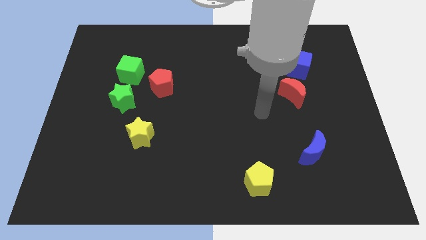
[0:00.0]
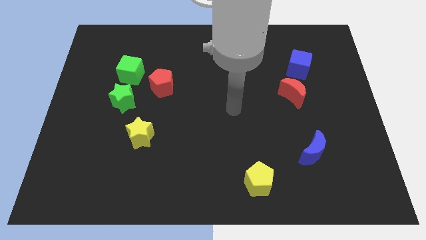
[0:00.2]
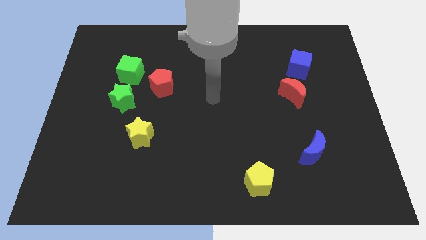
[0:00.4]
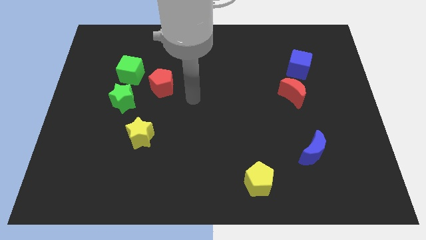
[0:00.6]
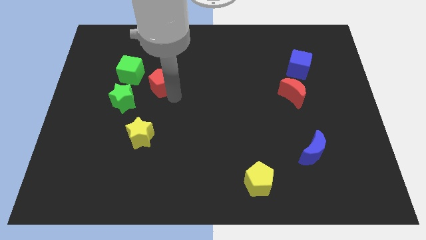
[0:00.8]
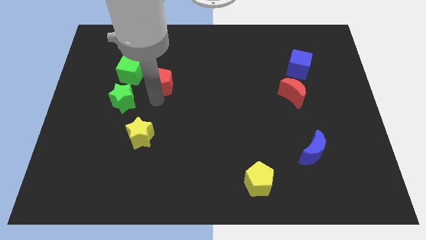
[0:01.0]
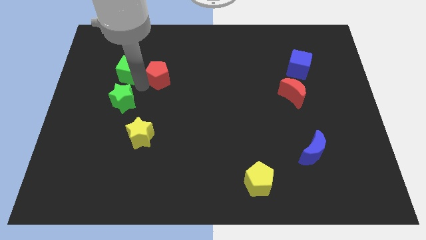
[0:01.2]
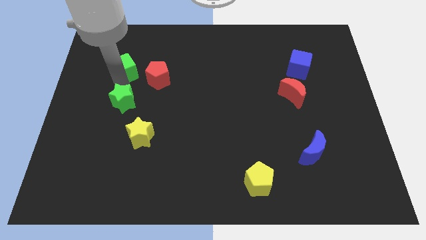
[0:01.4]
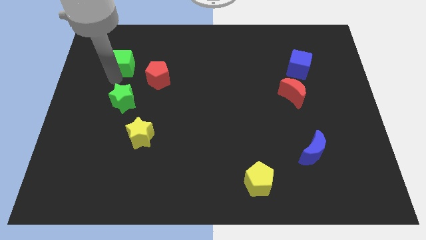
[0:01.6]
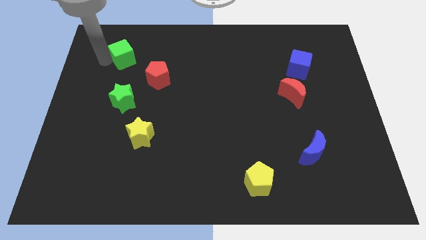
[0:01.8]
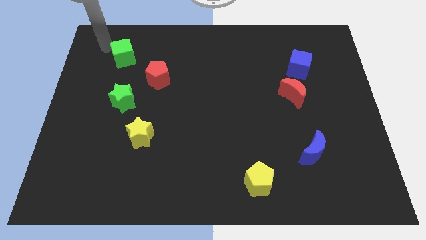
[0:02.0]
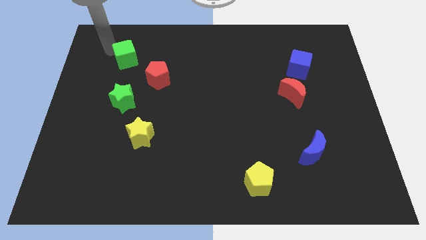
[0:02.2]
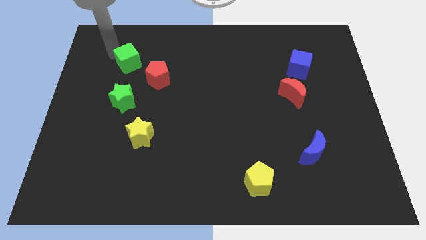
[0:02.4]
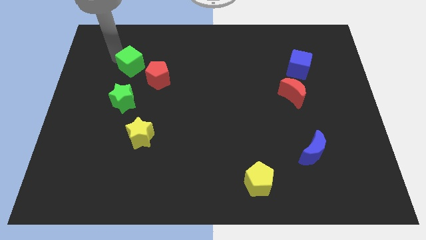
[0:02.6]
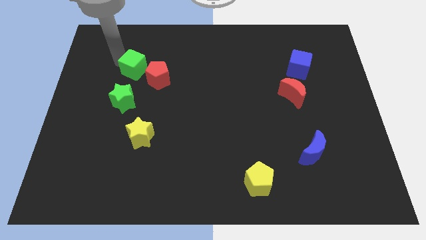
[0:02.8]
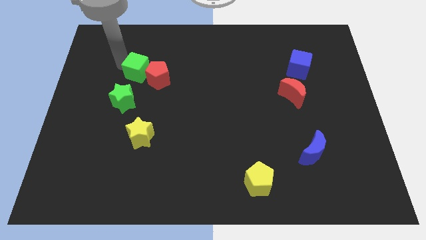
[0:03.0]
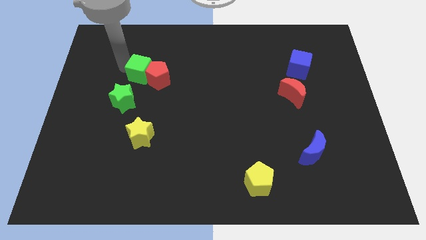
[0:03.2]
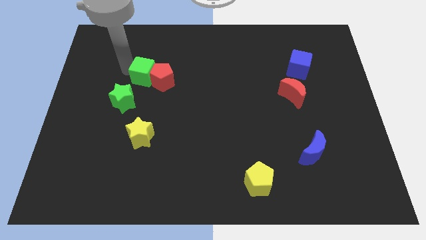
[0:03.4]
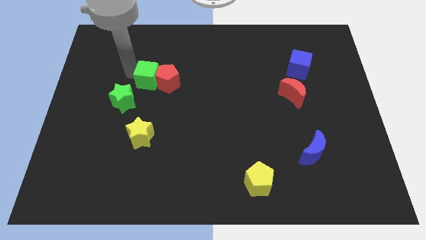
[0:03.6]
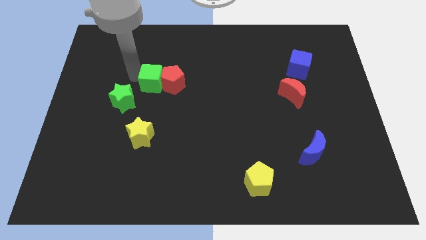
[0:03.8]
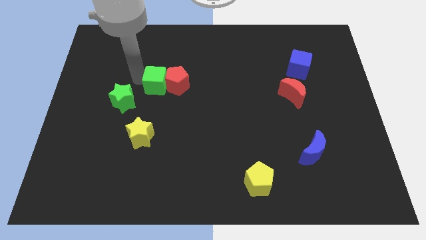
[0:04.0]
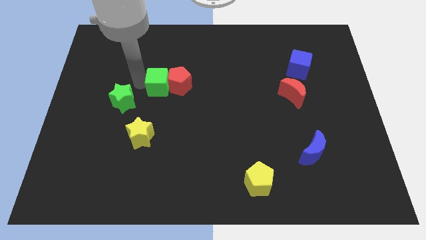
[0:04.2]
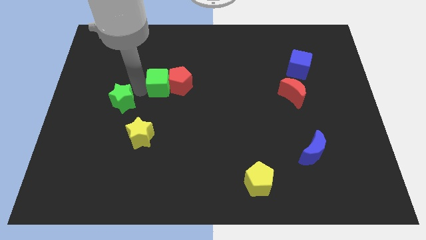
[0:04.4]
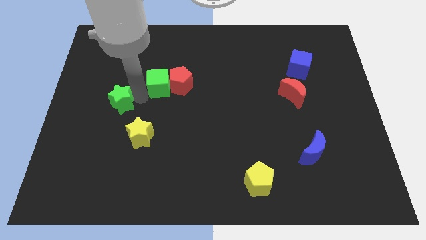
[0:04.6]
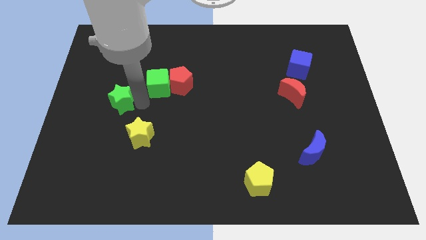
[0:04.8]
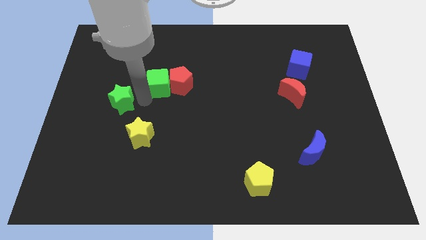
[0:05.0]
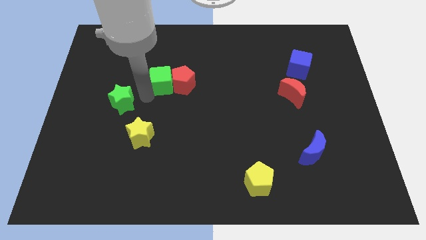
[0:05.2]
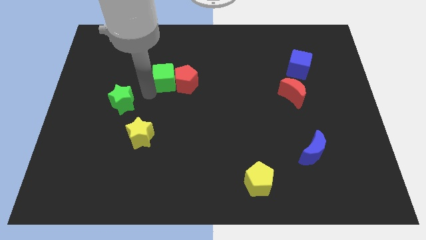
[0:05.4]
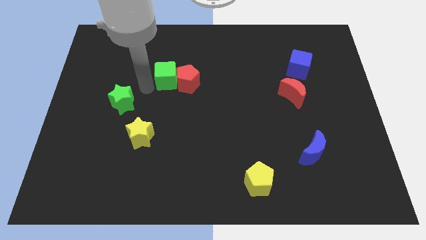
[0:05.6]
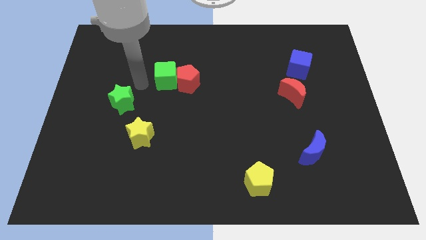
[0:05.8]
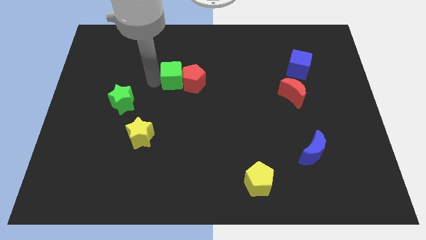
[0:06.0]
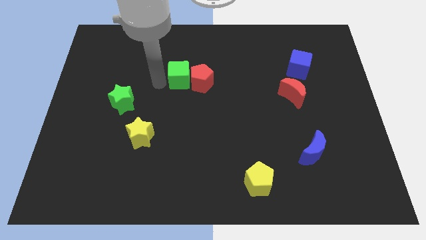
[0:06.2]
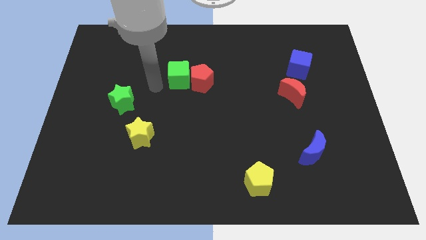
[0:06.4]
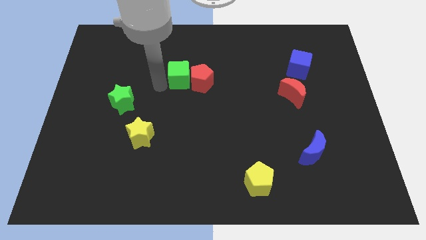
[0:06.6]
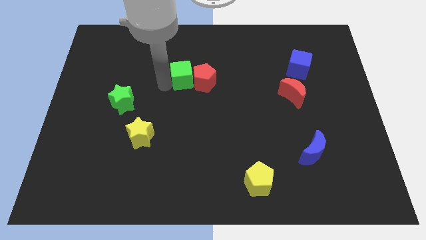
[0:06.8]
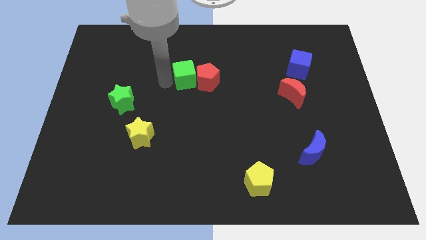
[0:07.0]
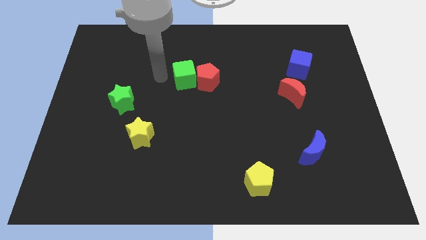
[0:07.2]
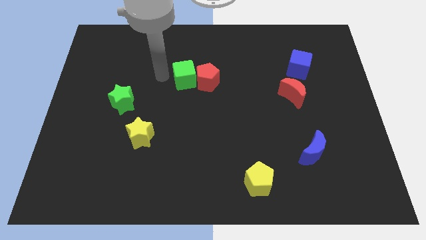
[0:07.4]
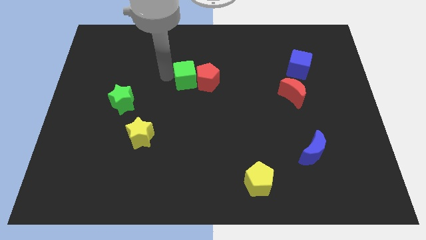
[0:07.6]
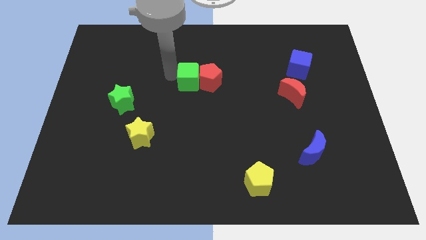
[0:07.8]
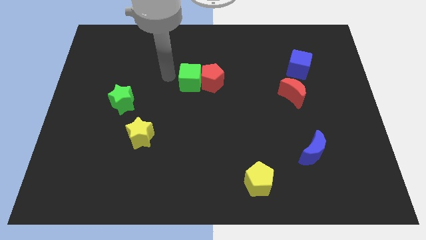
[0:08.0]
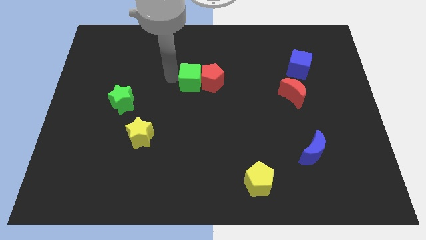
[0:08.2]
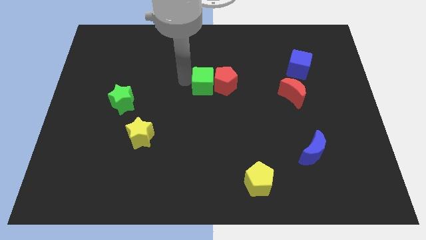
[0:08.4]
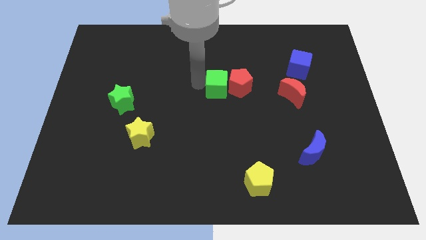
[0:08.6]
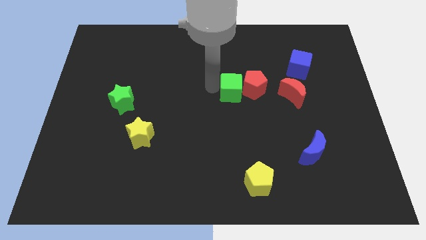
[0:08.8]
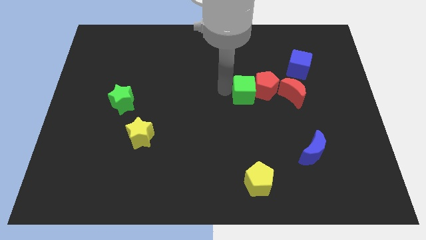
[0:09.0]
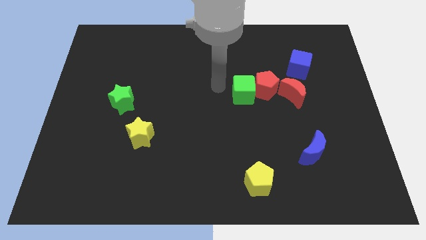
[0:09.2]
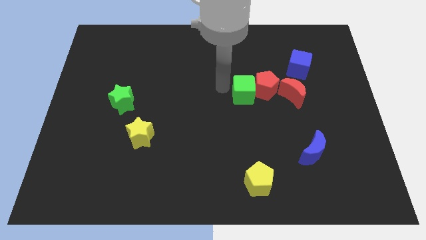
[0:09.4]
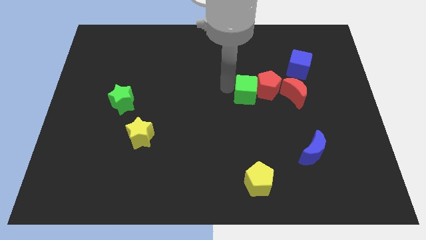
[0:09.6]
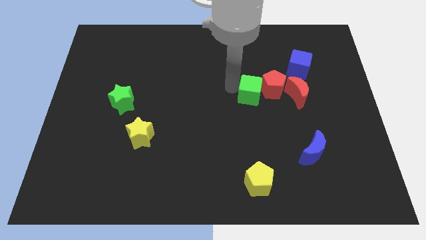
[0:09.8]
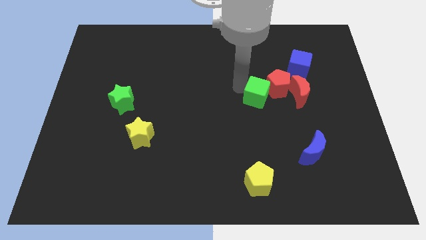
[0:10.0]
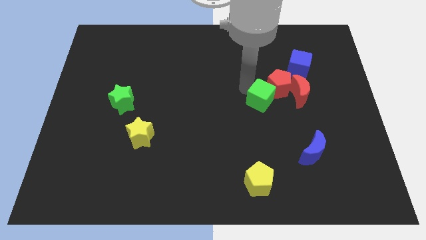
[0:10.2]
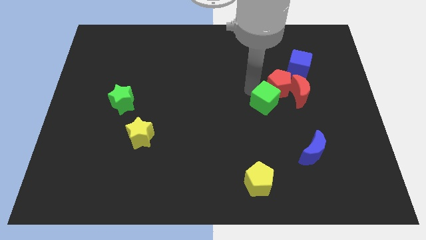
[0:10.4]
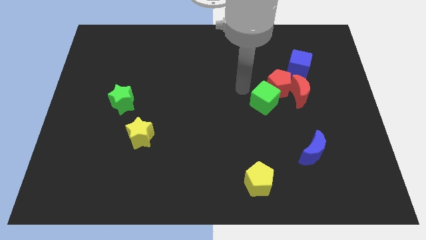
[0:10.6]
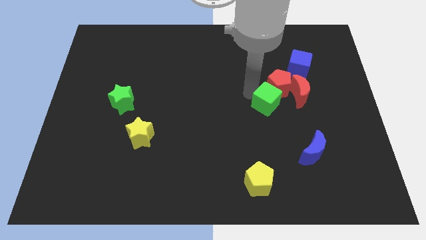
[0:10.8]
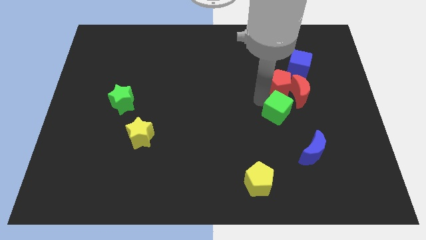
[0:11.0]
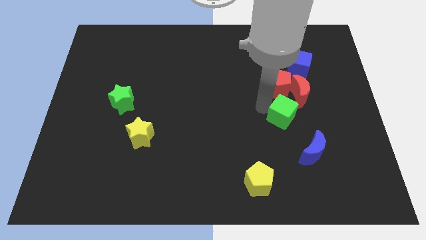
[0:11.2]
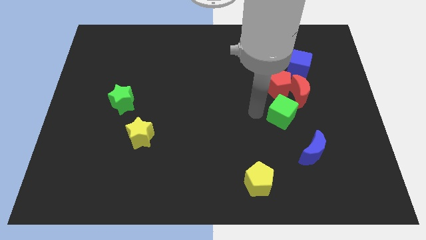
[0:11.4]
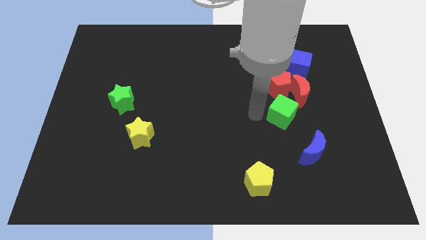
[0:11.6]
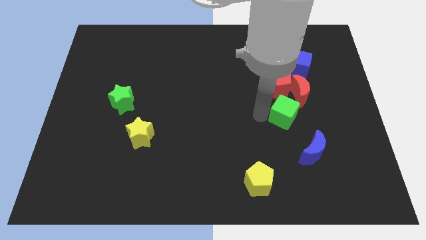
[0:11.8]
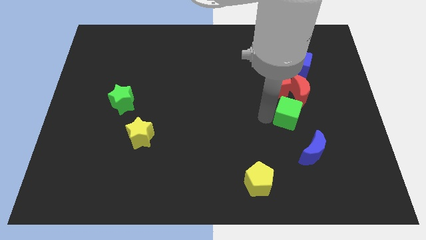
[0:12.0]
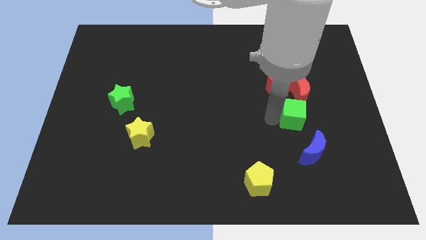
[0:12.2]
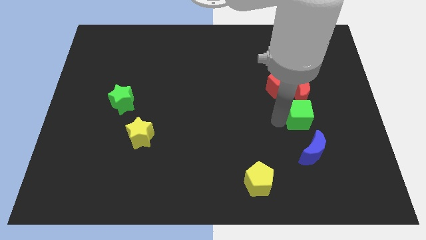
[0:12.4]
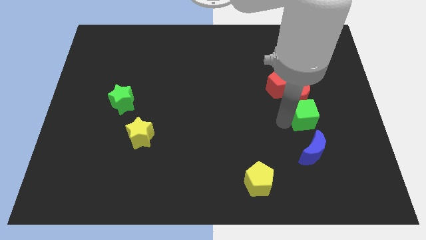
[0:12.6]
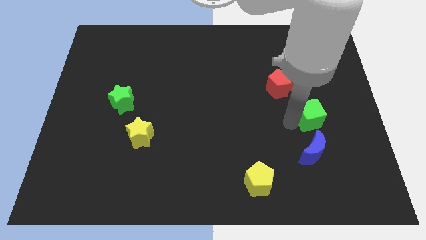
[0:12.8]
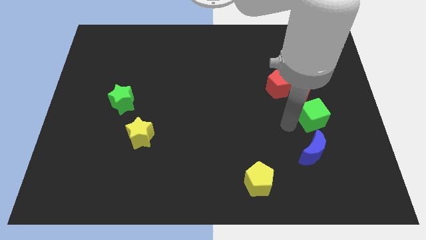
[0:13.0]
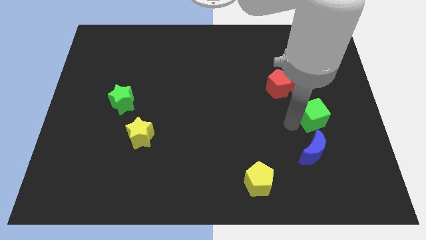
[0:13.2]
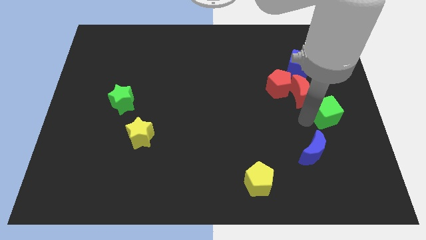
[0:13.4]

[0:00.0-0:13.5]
move the green cube to the center right
